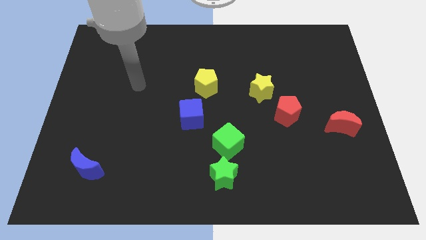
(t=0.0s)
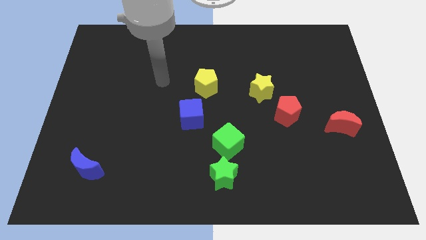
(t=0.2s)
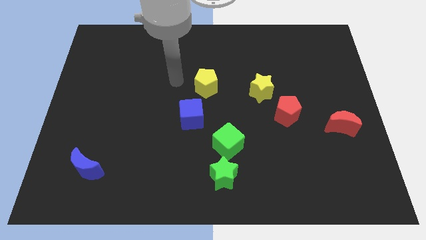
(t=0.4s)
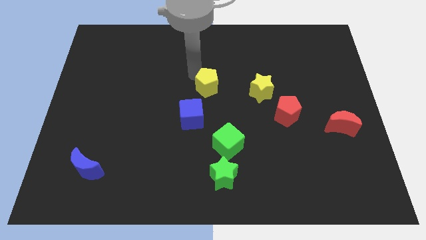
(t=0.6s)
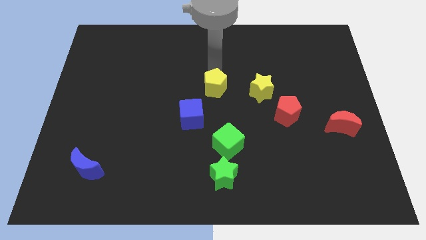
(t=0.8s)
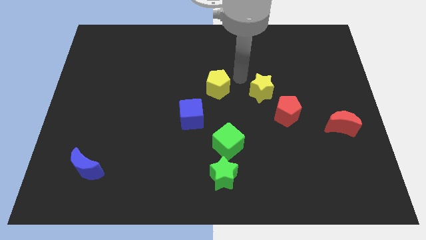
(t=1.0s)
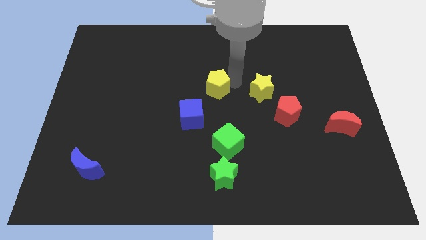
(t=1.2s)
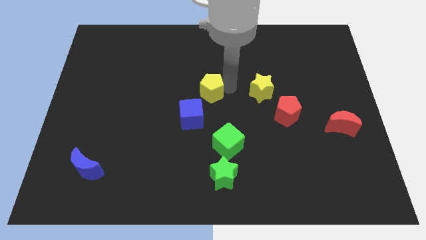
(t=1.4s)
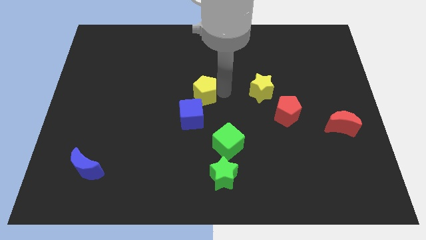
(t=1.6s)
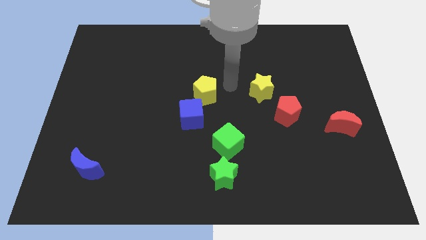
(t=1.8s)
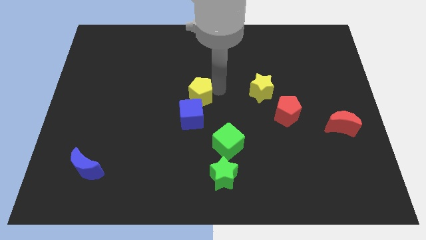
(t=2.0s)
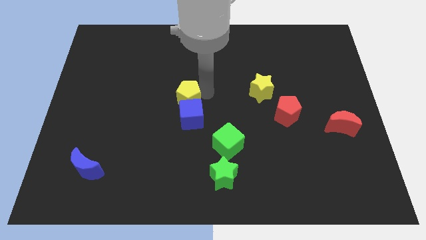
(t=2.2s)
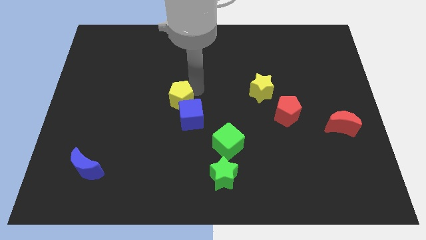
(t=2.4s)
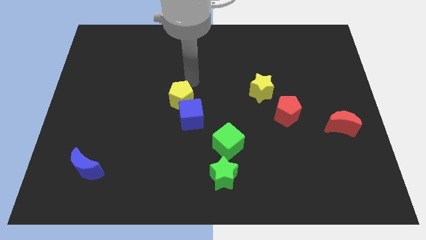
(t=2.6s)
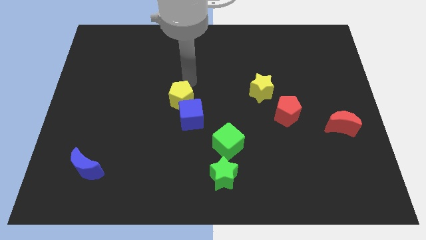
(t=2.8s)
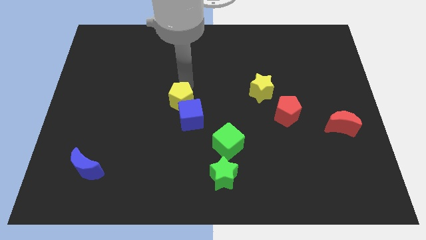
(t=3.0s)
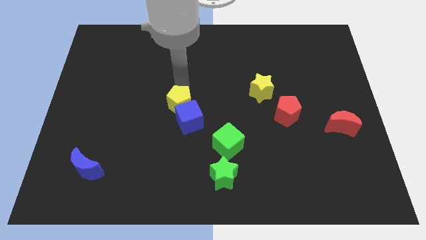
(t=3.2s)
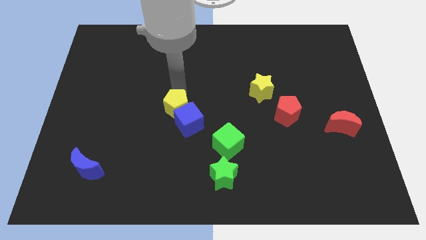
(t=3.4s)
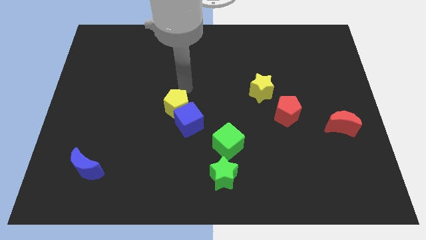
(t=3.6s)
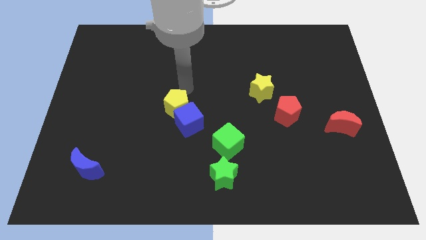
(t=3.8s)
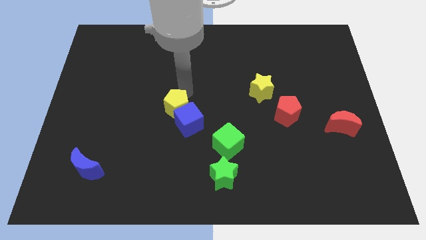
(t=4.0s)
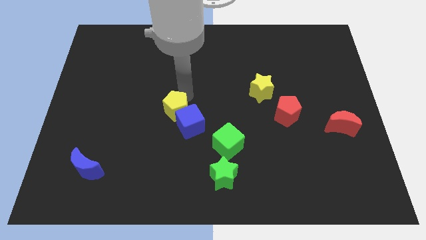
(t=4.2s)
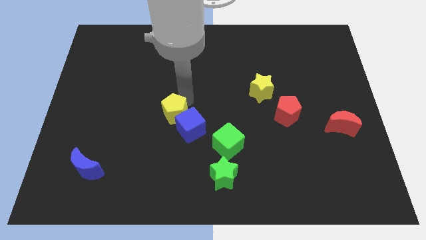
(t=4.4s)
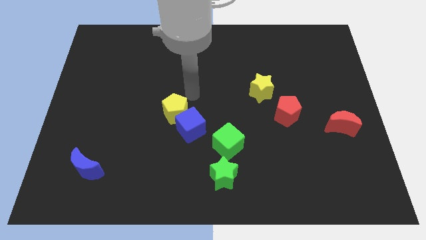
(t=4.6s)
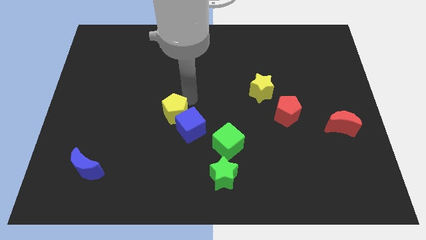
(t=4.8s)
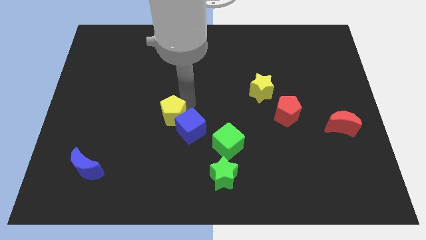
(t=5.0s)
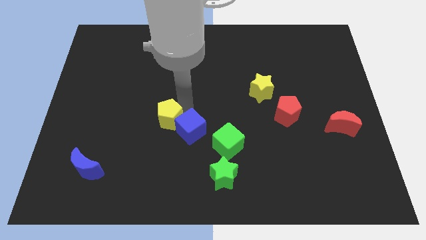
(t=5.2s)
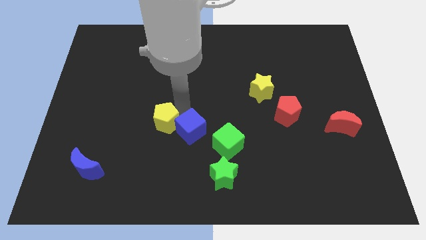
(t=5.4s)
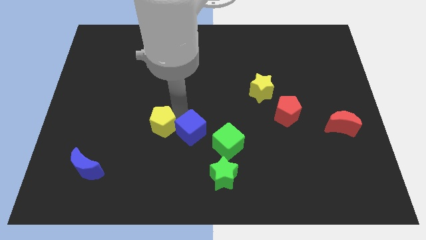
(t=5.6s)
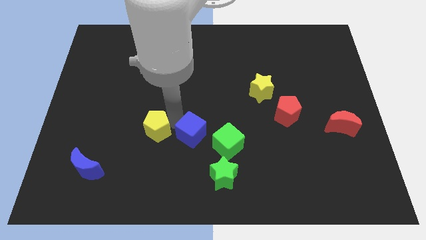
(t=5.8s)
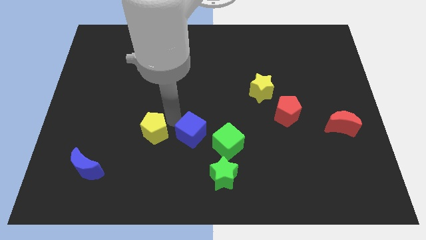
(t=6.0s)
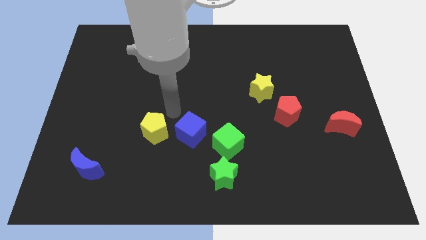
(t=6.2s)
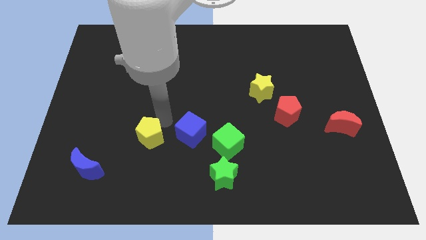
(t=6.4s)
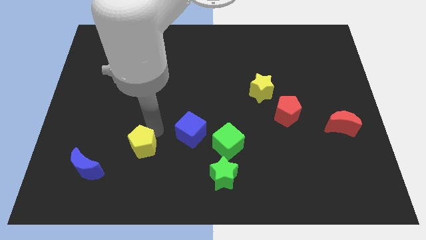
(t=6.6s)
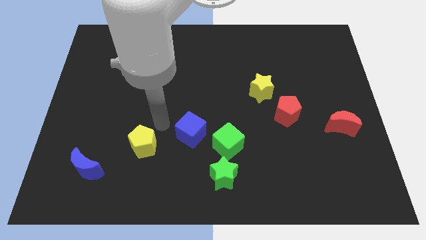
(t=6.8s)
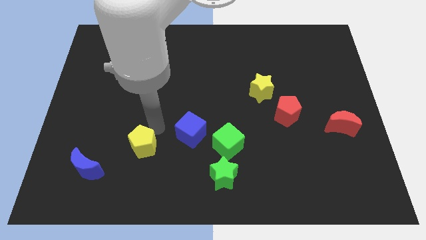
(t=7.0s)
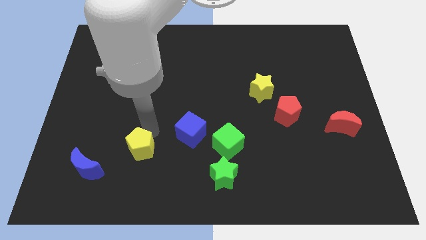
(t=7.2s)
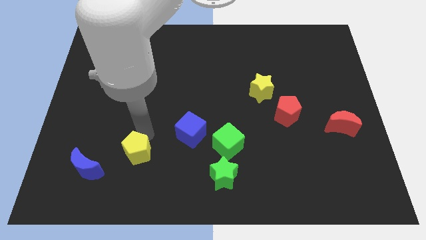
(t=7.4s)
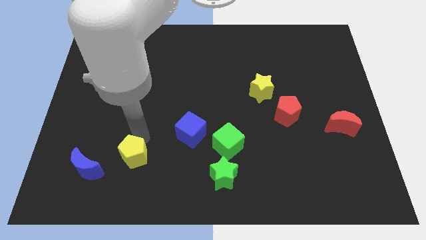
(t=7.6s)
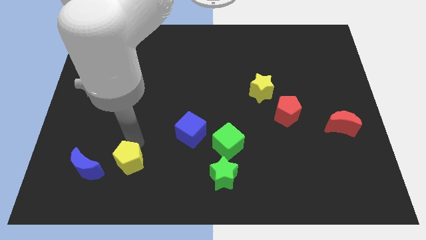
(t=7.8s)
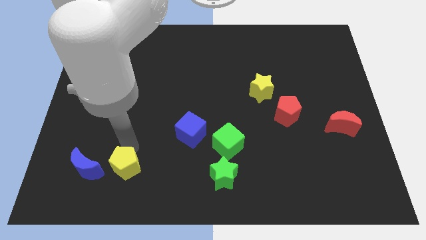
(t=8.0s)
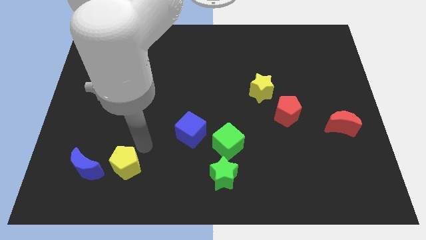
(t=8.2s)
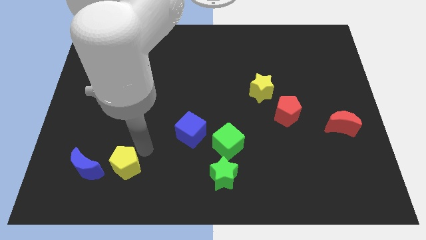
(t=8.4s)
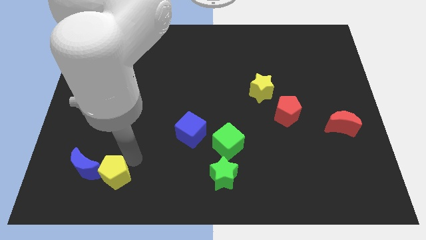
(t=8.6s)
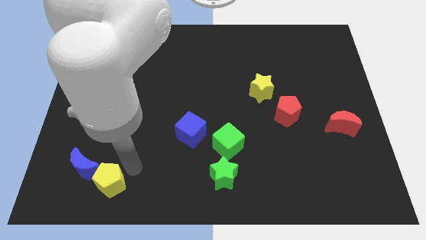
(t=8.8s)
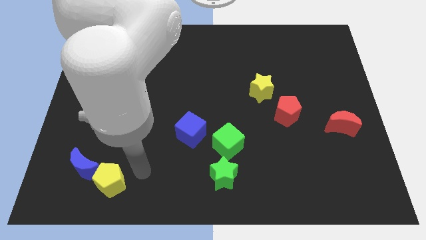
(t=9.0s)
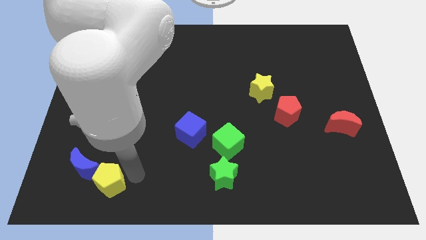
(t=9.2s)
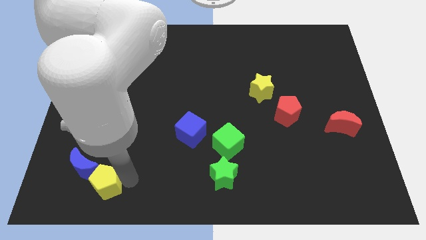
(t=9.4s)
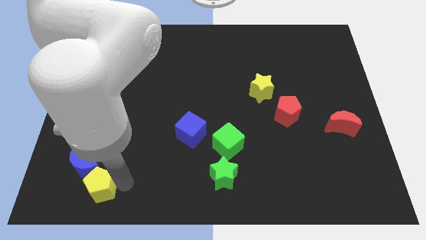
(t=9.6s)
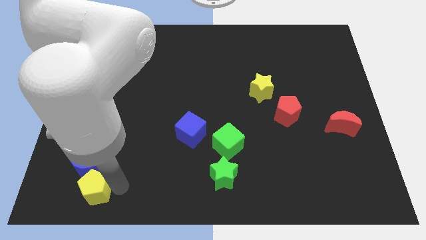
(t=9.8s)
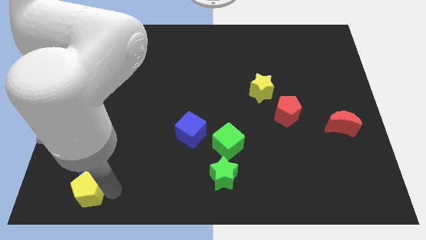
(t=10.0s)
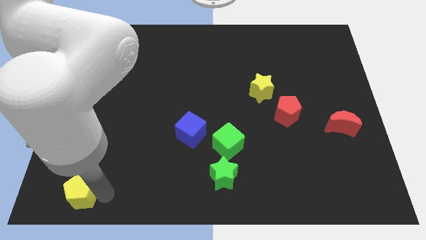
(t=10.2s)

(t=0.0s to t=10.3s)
move the yellow pentagon to the bottom left corner

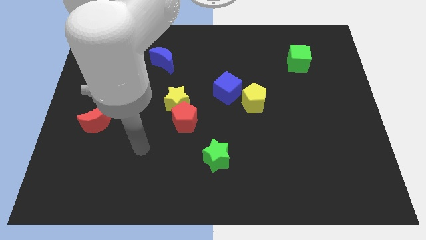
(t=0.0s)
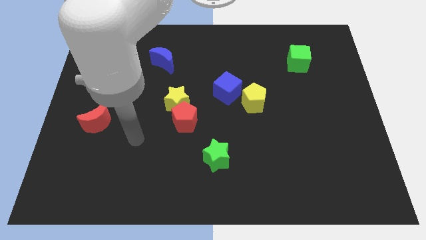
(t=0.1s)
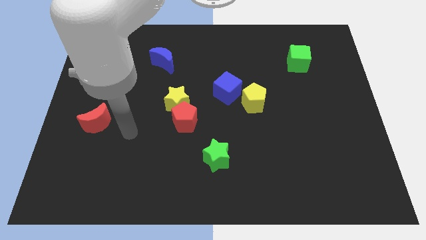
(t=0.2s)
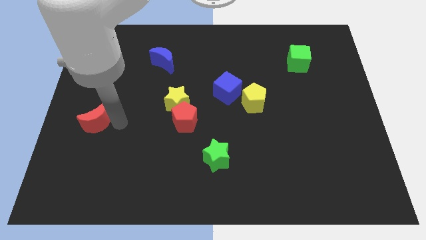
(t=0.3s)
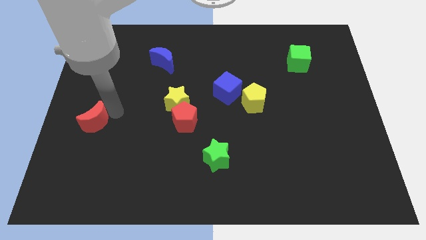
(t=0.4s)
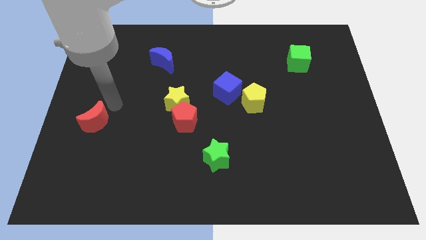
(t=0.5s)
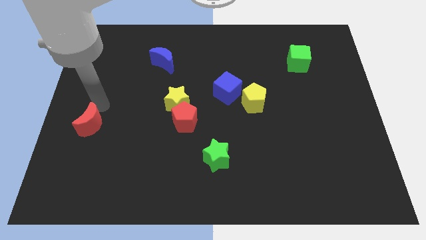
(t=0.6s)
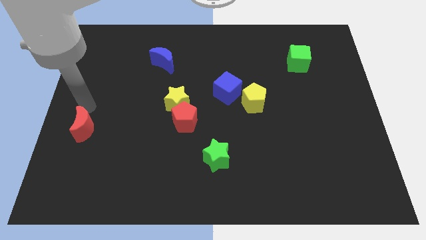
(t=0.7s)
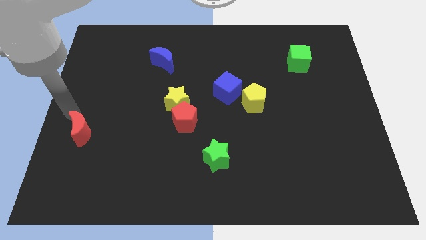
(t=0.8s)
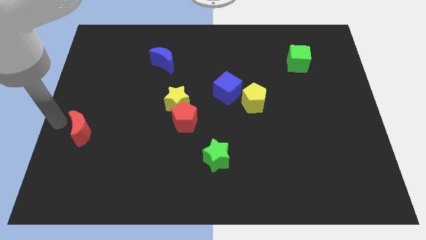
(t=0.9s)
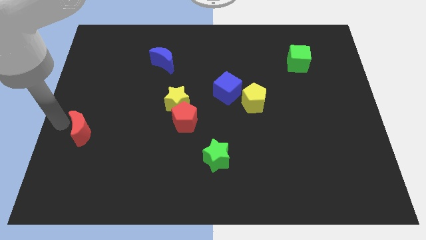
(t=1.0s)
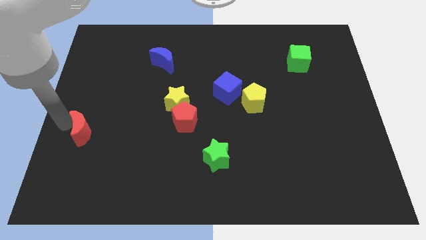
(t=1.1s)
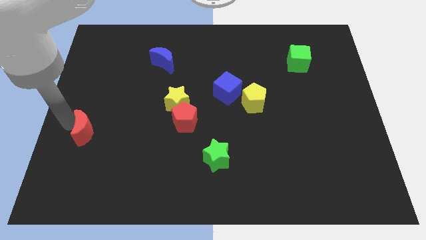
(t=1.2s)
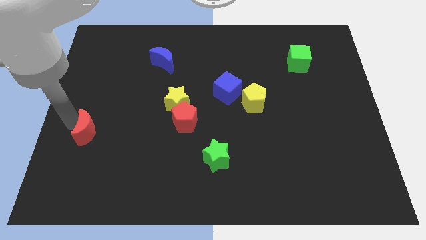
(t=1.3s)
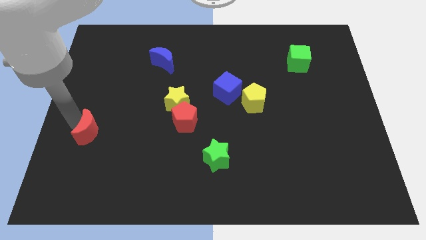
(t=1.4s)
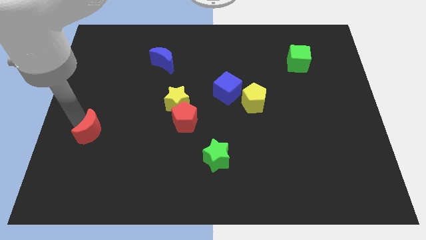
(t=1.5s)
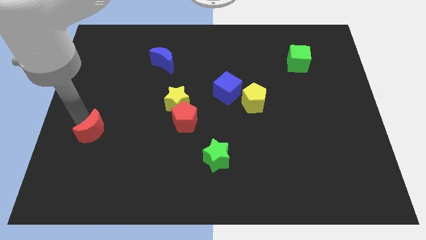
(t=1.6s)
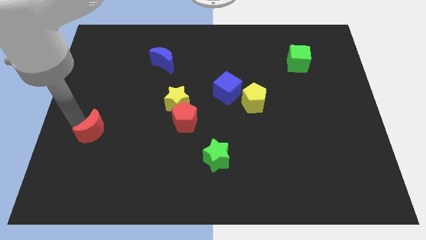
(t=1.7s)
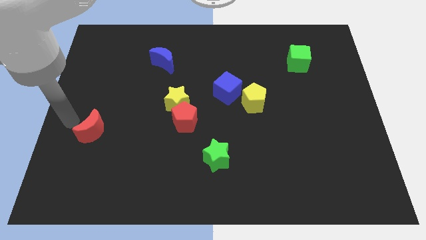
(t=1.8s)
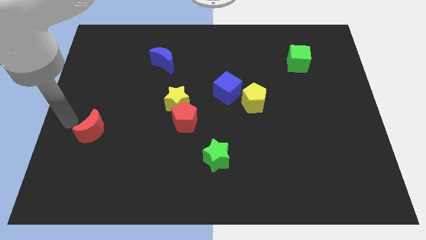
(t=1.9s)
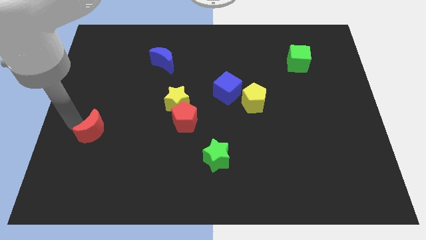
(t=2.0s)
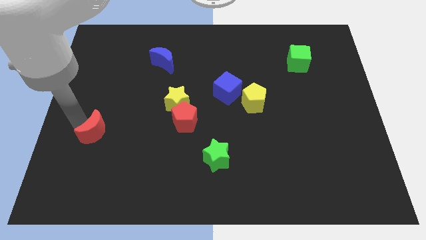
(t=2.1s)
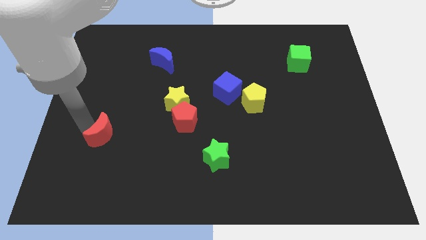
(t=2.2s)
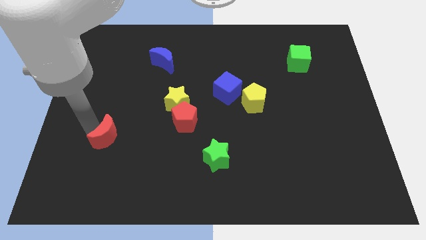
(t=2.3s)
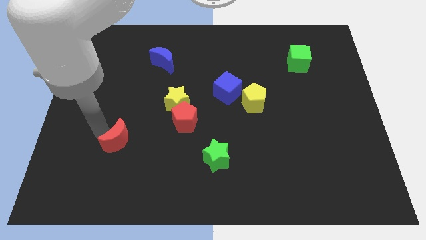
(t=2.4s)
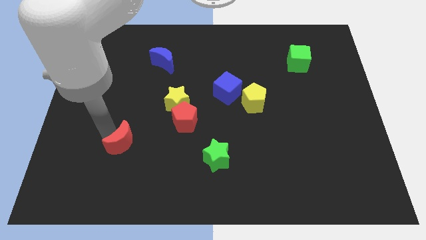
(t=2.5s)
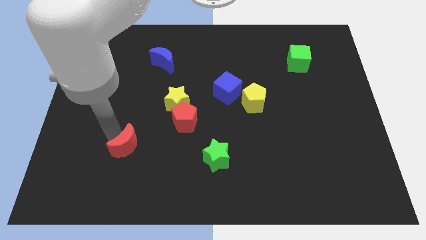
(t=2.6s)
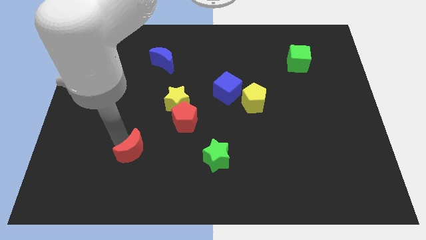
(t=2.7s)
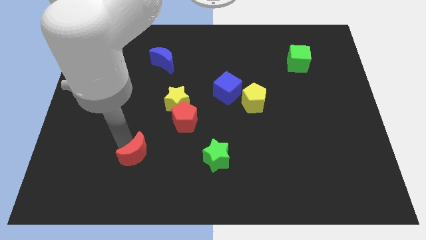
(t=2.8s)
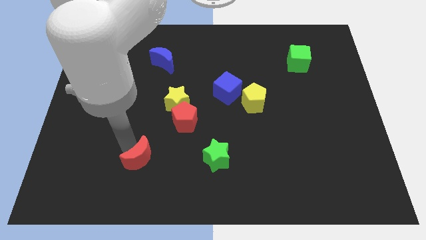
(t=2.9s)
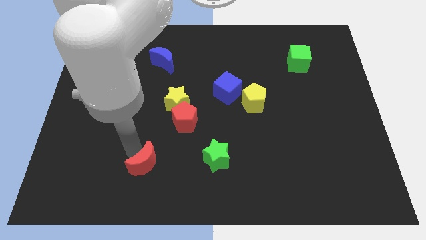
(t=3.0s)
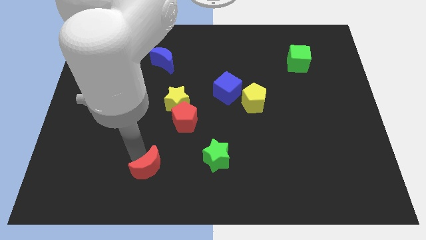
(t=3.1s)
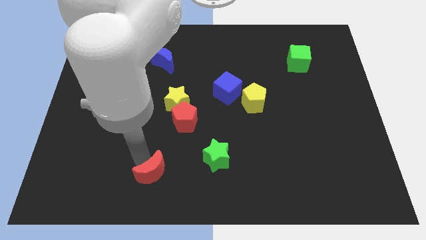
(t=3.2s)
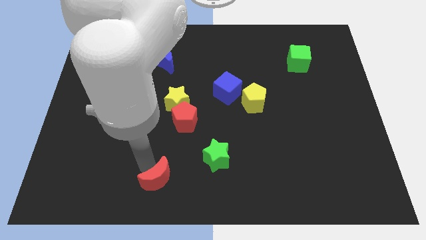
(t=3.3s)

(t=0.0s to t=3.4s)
put the red moon to the bottom side
